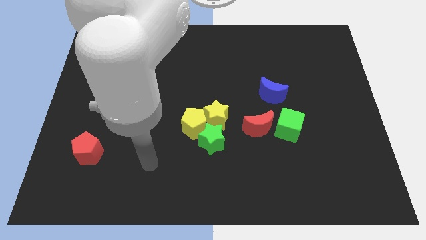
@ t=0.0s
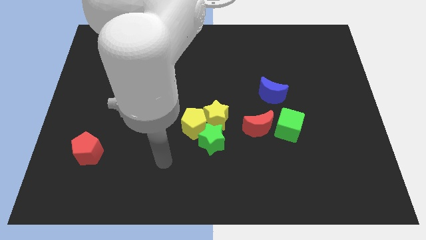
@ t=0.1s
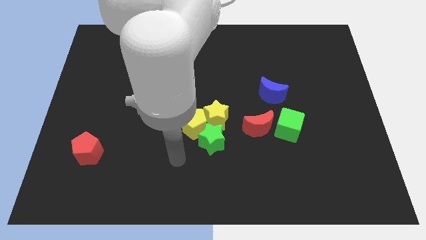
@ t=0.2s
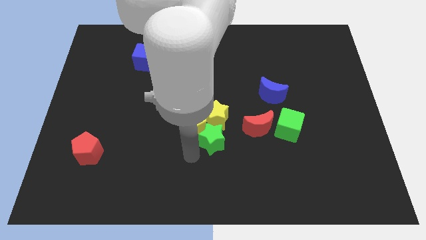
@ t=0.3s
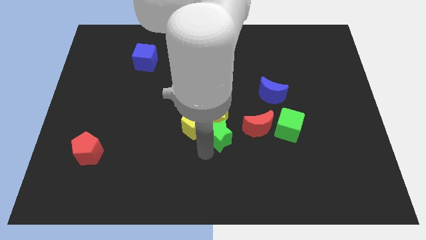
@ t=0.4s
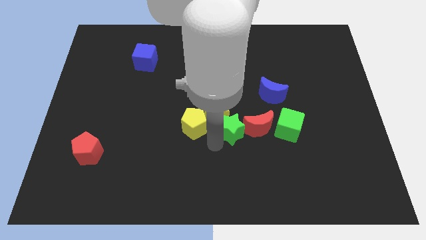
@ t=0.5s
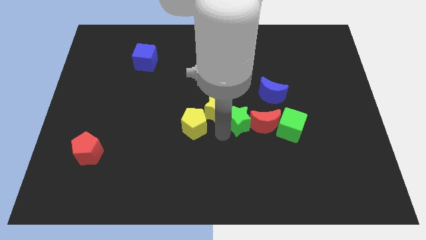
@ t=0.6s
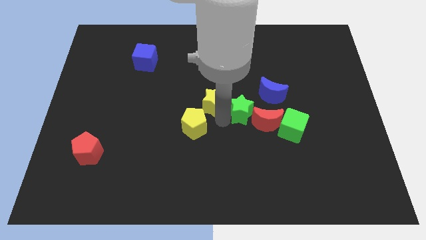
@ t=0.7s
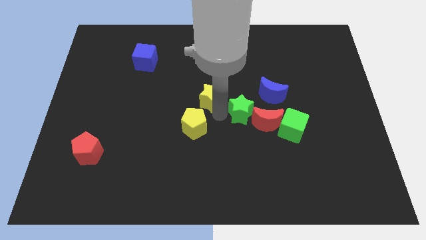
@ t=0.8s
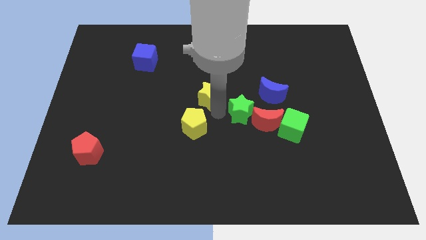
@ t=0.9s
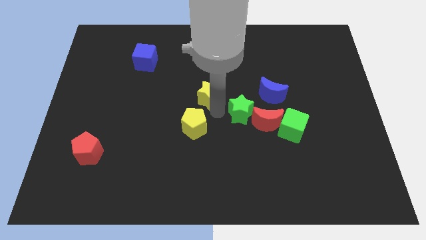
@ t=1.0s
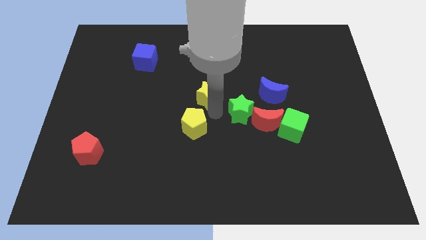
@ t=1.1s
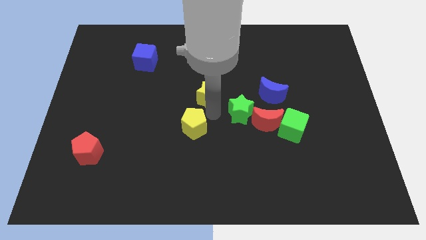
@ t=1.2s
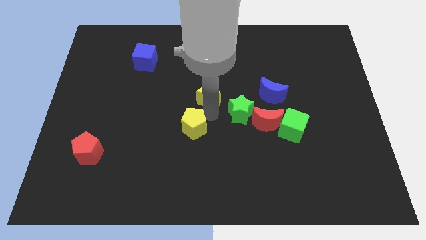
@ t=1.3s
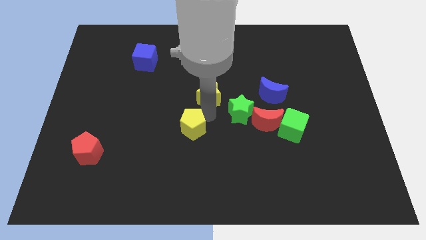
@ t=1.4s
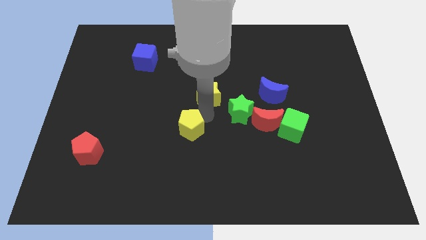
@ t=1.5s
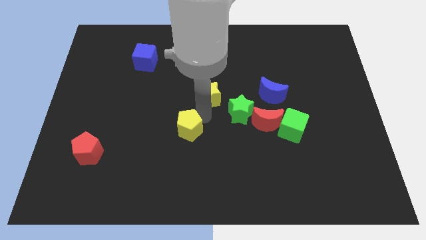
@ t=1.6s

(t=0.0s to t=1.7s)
pull the yellow pentagon apart from the yellow star and green star

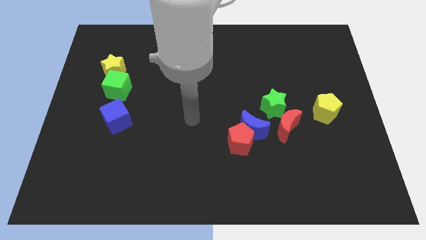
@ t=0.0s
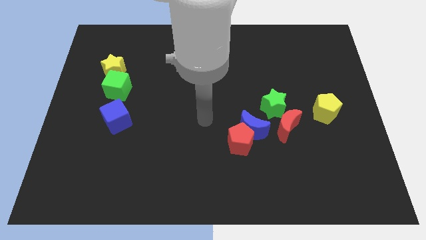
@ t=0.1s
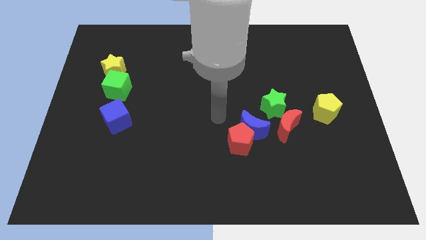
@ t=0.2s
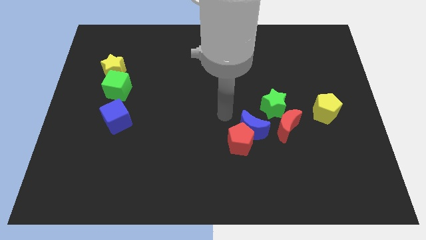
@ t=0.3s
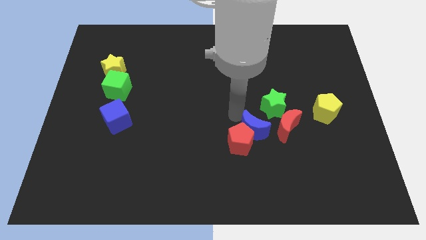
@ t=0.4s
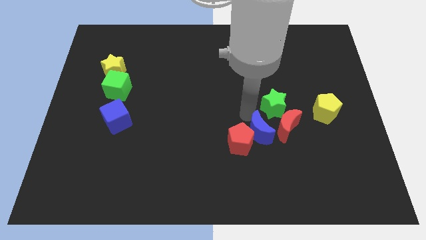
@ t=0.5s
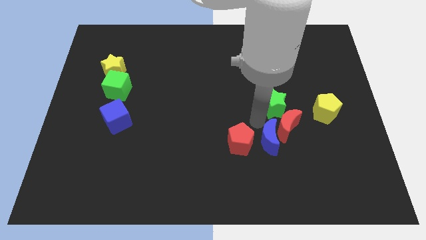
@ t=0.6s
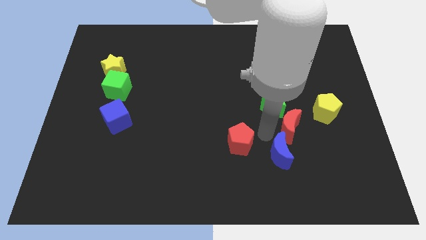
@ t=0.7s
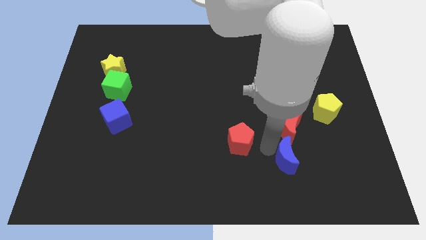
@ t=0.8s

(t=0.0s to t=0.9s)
separate the red pentagon from the blue moon

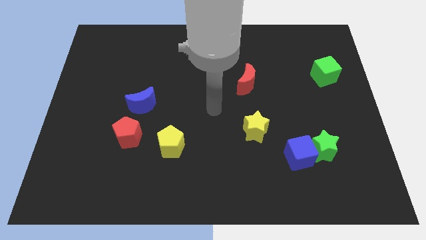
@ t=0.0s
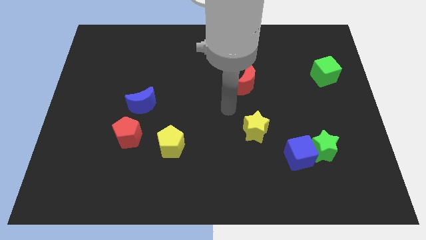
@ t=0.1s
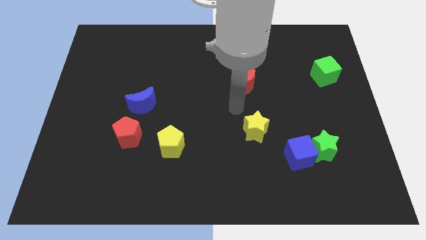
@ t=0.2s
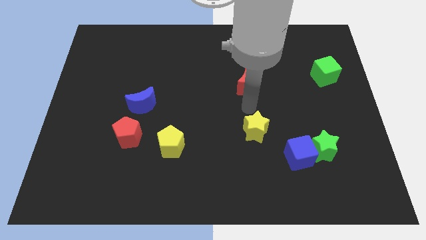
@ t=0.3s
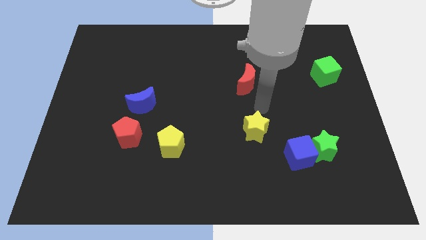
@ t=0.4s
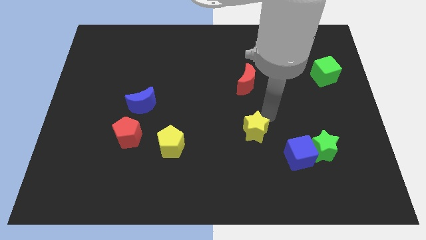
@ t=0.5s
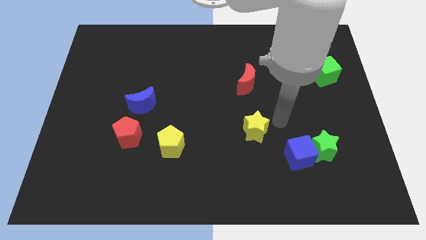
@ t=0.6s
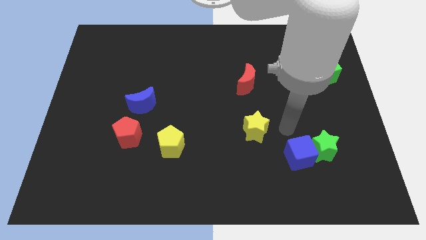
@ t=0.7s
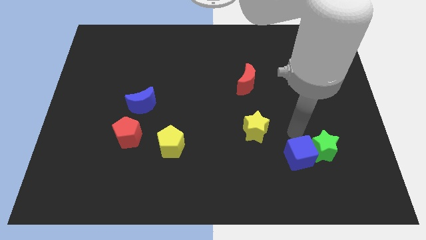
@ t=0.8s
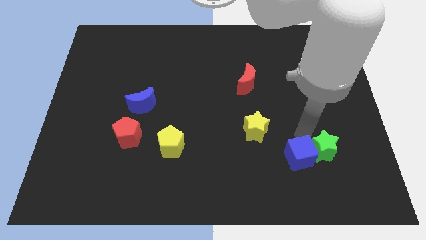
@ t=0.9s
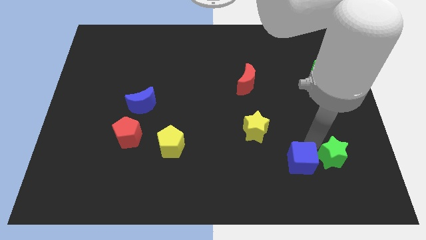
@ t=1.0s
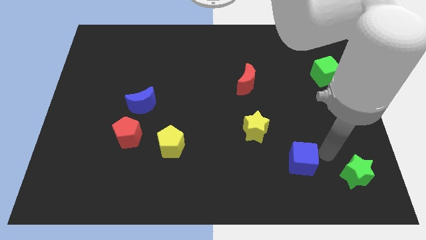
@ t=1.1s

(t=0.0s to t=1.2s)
move the blue cube away from the green star

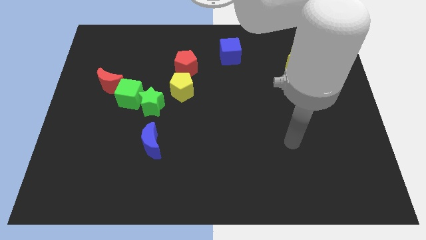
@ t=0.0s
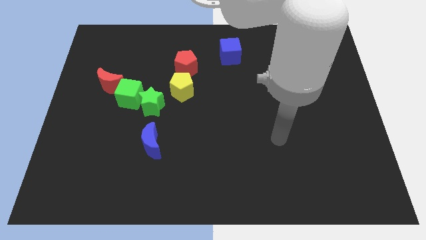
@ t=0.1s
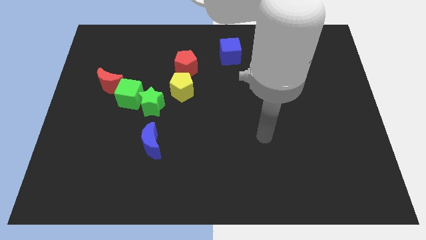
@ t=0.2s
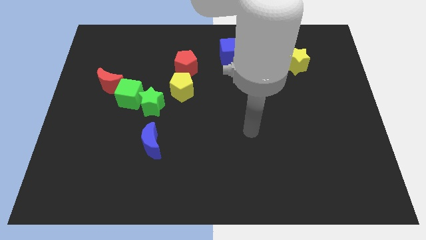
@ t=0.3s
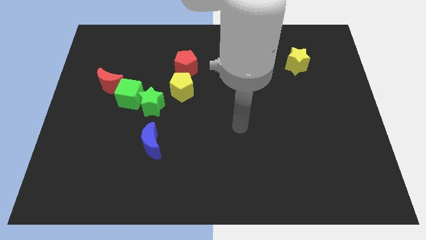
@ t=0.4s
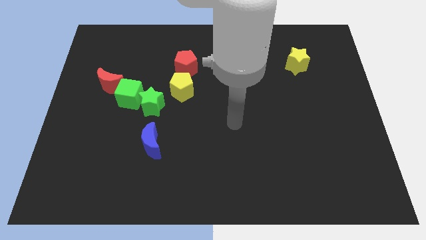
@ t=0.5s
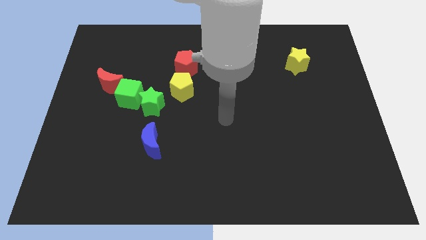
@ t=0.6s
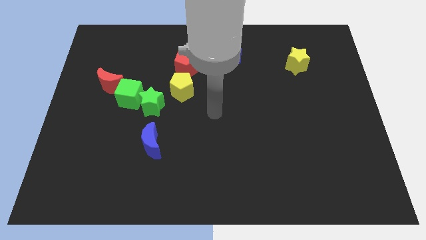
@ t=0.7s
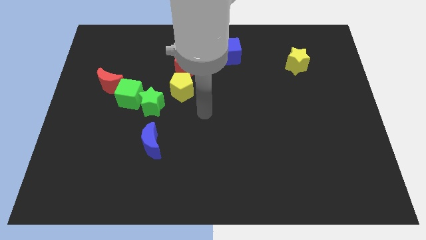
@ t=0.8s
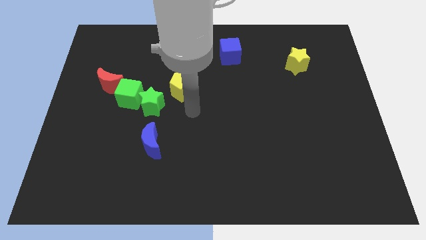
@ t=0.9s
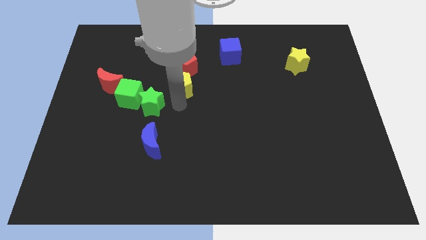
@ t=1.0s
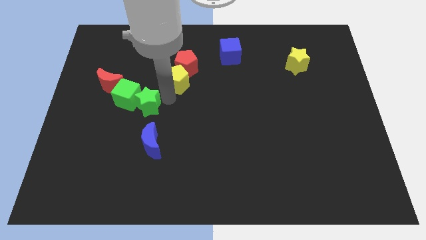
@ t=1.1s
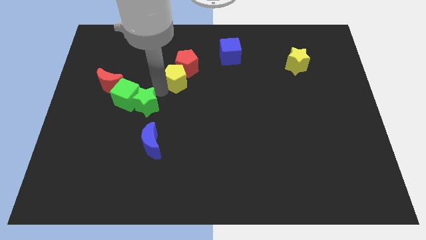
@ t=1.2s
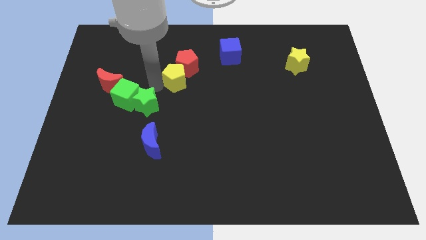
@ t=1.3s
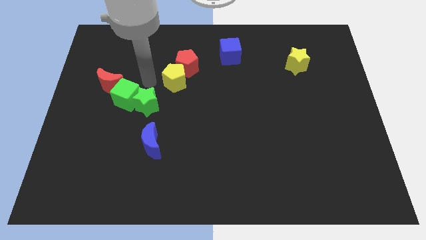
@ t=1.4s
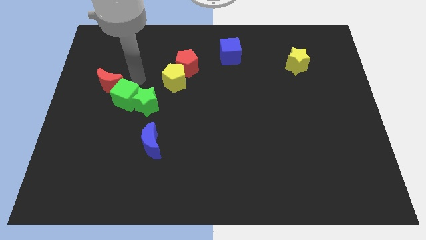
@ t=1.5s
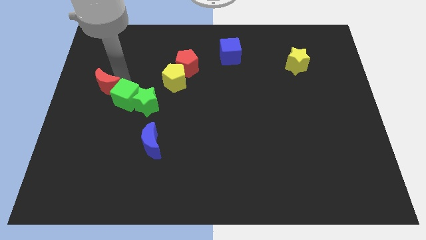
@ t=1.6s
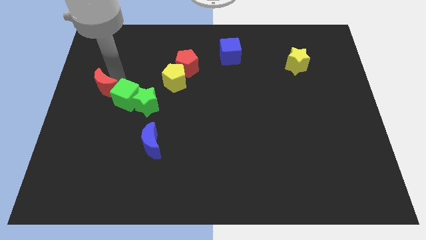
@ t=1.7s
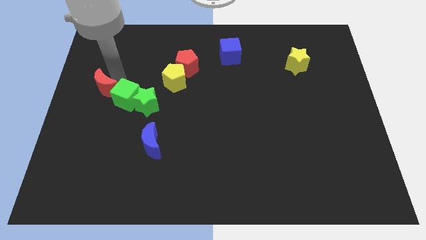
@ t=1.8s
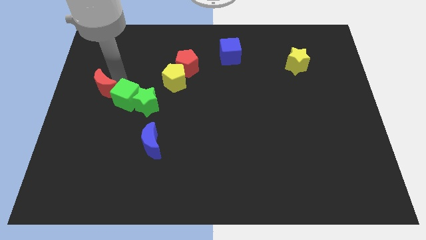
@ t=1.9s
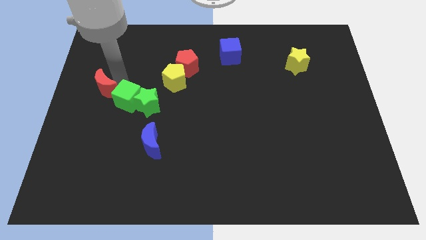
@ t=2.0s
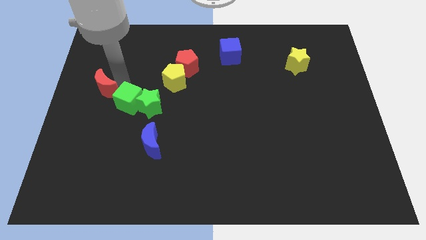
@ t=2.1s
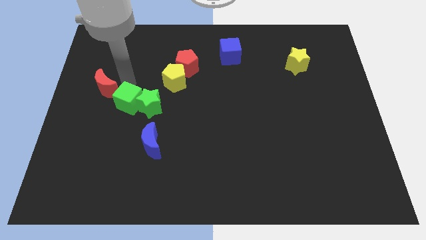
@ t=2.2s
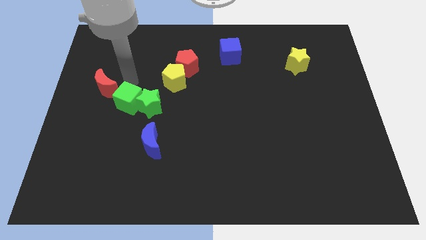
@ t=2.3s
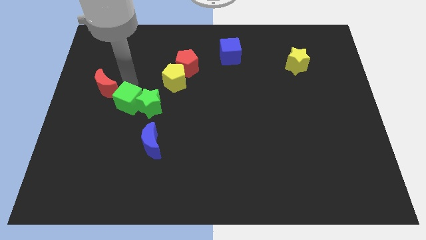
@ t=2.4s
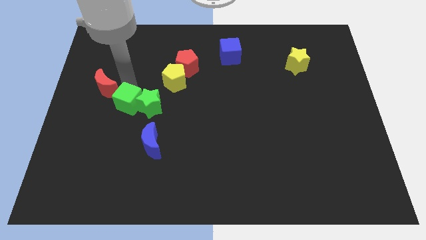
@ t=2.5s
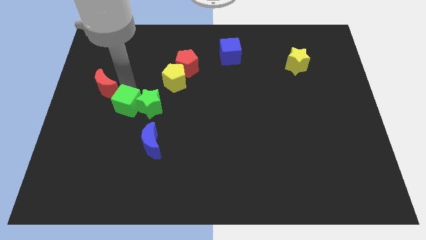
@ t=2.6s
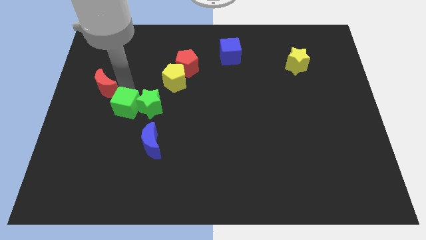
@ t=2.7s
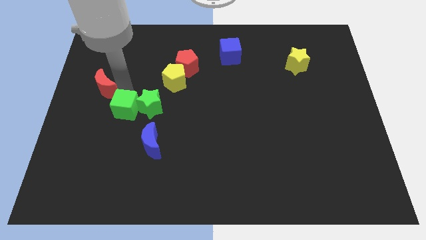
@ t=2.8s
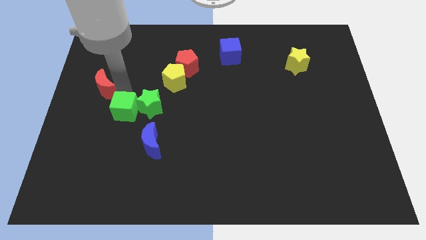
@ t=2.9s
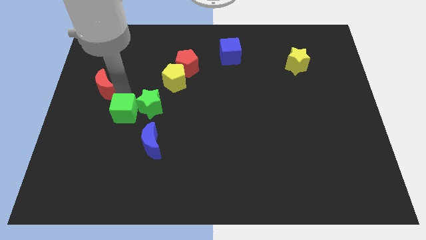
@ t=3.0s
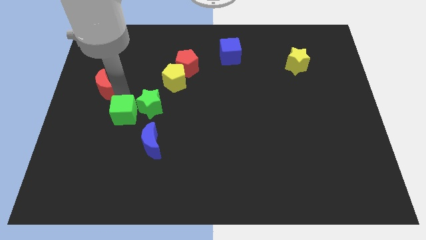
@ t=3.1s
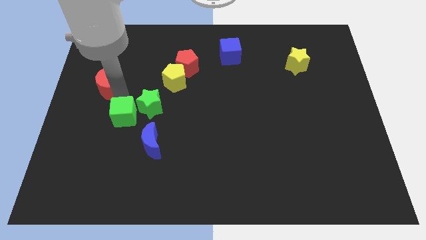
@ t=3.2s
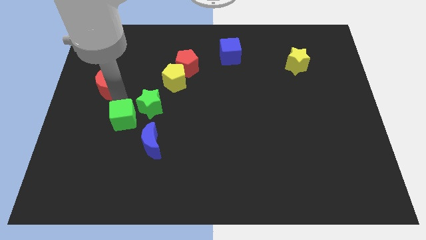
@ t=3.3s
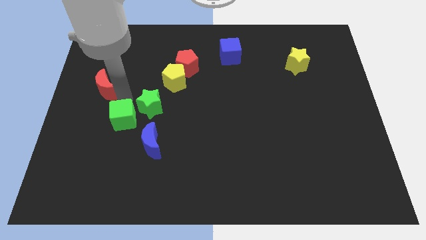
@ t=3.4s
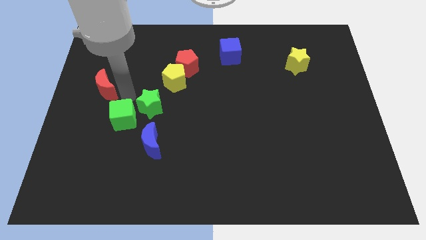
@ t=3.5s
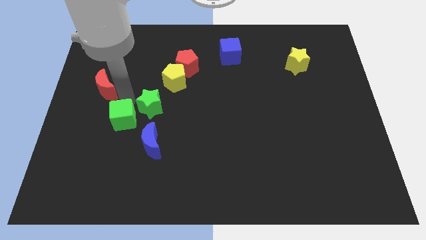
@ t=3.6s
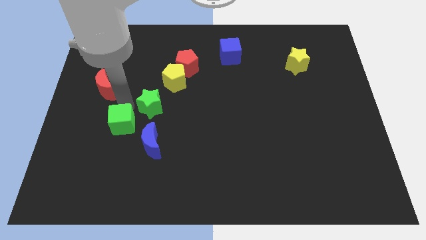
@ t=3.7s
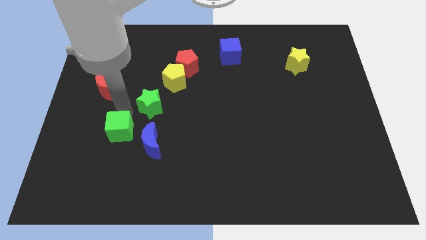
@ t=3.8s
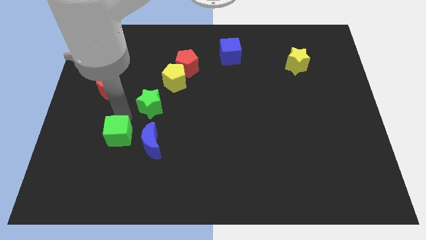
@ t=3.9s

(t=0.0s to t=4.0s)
separate the green cube from the green star and red moon

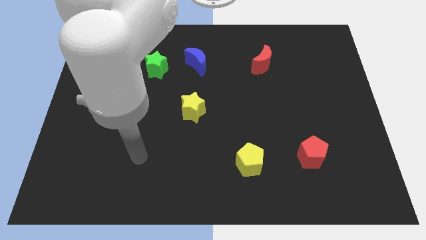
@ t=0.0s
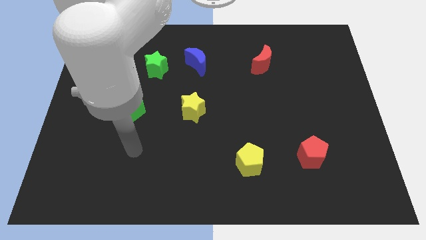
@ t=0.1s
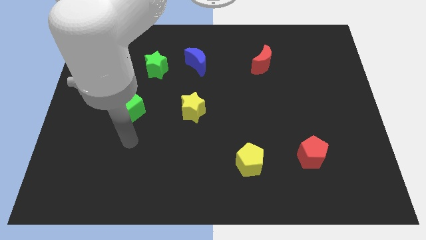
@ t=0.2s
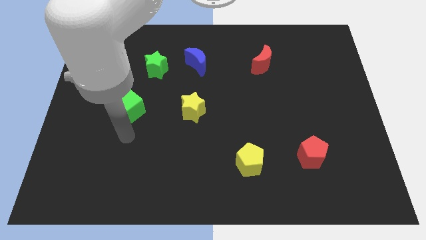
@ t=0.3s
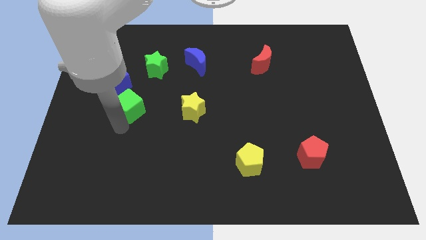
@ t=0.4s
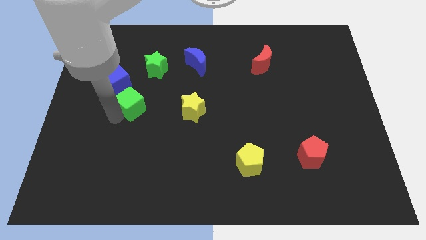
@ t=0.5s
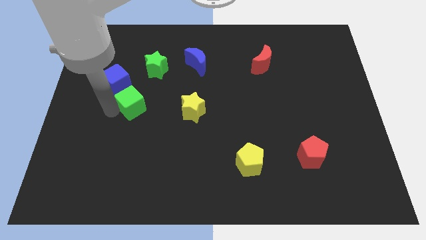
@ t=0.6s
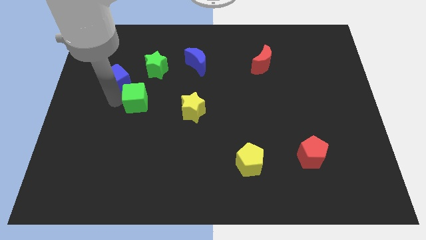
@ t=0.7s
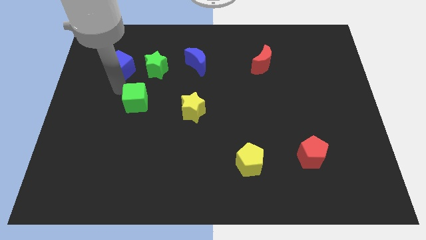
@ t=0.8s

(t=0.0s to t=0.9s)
separate the green cube from the blue cube

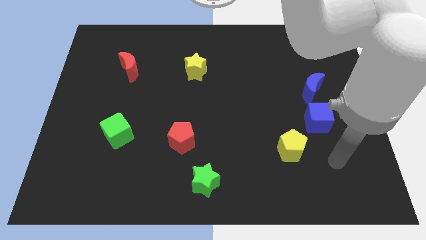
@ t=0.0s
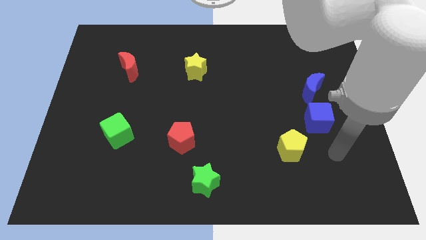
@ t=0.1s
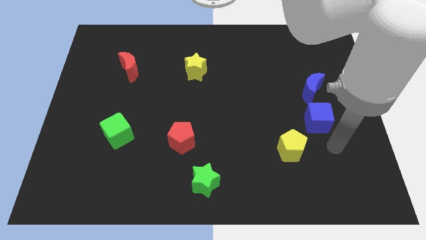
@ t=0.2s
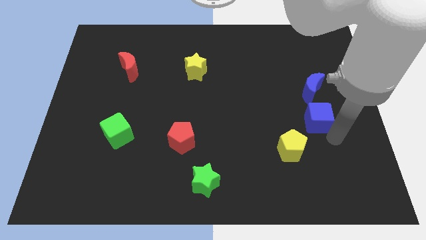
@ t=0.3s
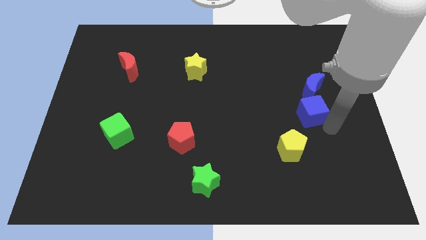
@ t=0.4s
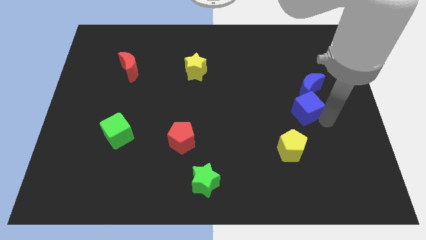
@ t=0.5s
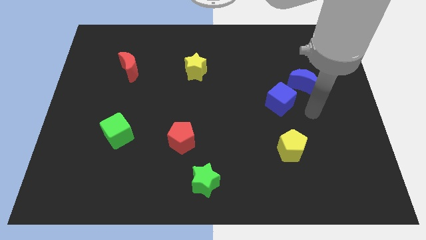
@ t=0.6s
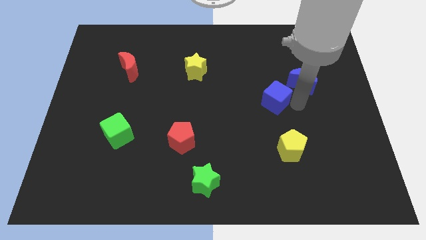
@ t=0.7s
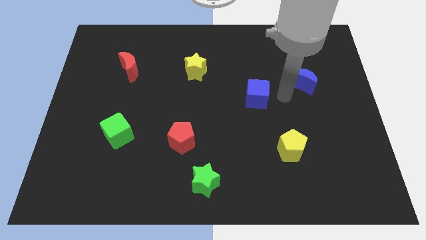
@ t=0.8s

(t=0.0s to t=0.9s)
pull the blue moon apart from the blue cube
